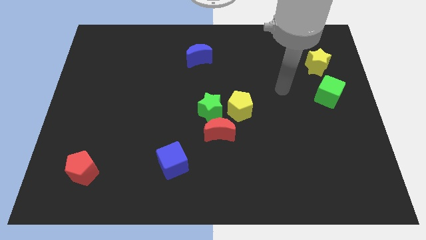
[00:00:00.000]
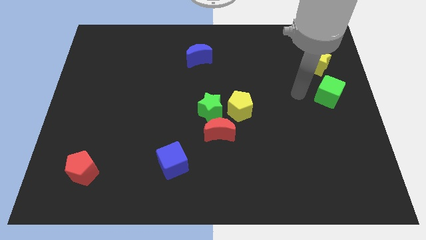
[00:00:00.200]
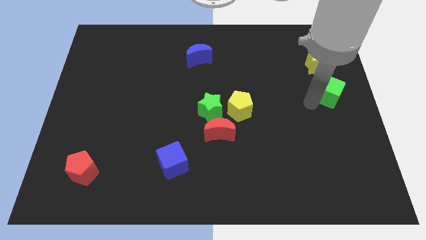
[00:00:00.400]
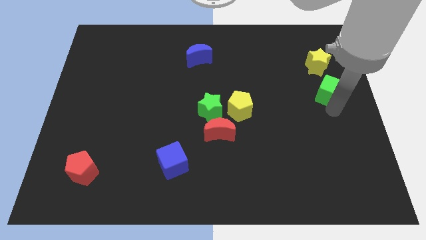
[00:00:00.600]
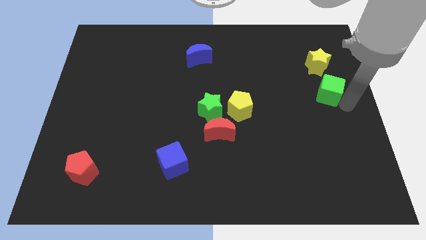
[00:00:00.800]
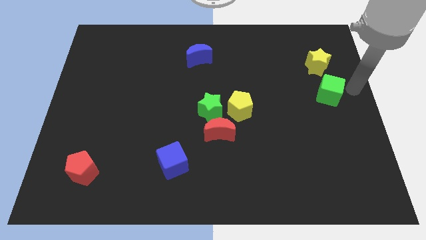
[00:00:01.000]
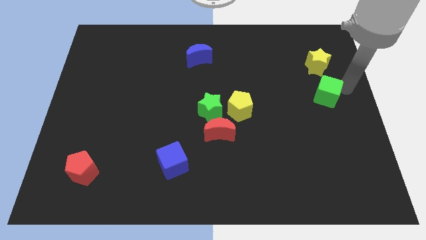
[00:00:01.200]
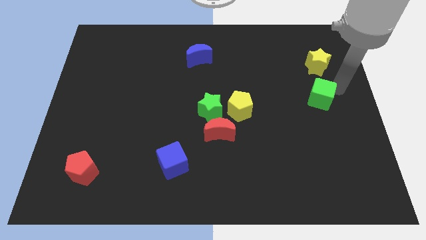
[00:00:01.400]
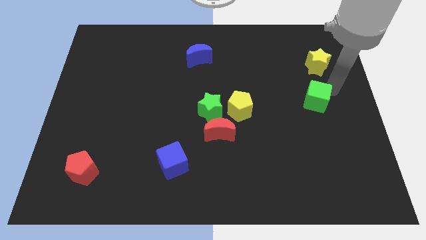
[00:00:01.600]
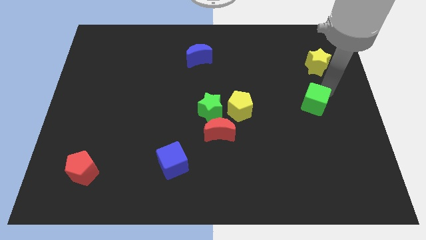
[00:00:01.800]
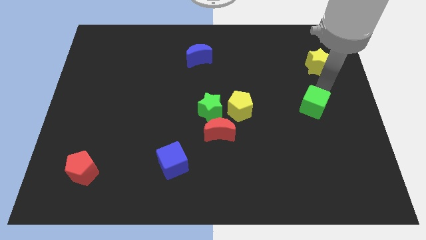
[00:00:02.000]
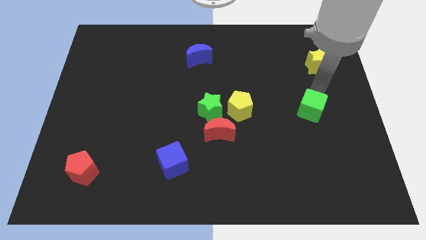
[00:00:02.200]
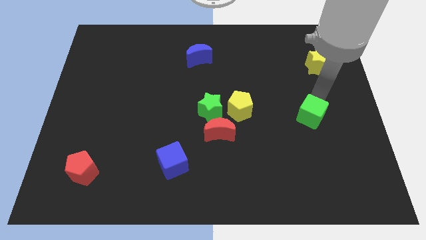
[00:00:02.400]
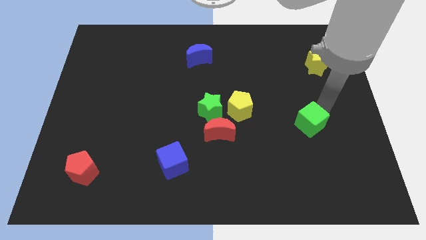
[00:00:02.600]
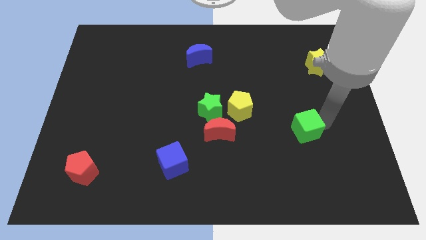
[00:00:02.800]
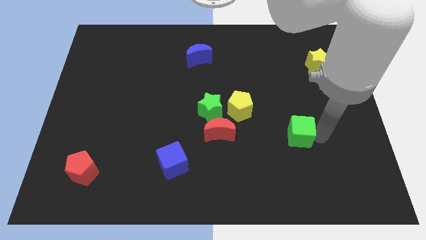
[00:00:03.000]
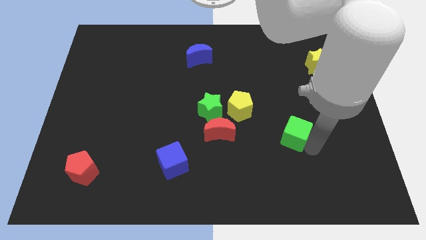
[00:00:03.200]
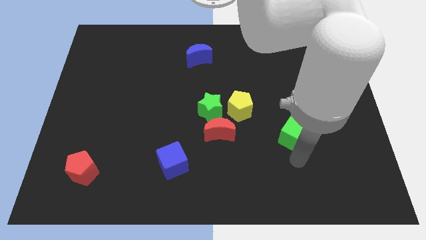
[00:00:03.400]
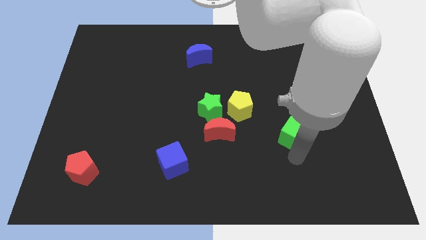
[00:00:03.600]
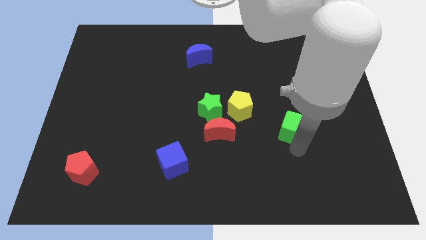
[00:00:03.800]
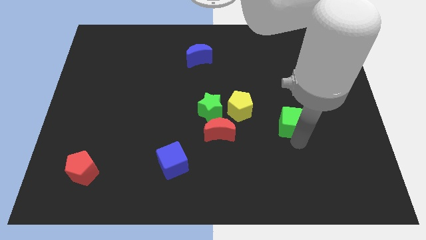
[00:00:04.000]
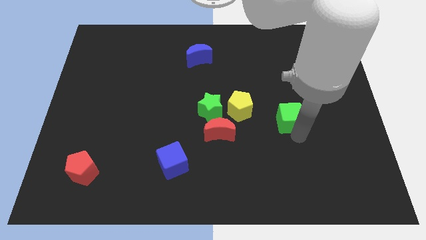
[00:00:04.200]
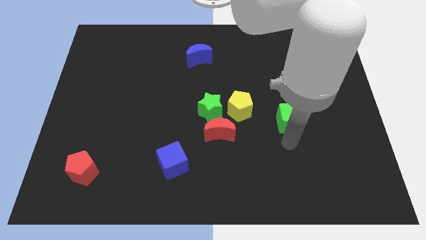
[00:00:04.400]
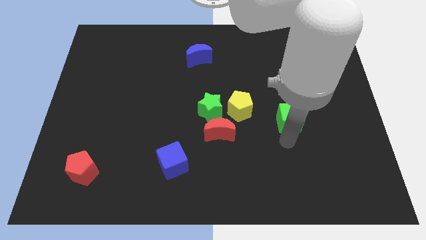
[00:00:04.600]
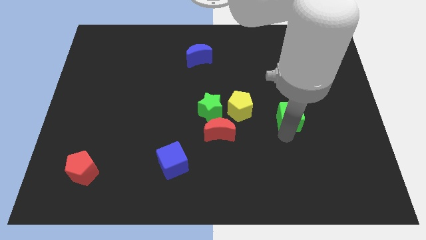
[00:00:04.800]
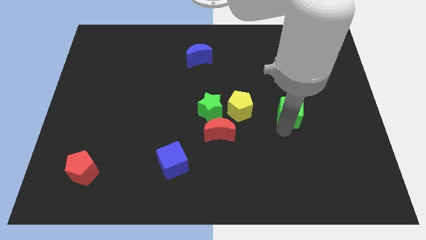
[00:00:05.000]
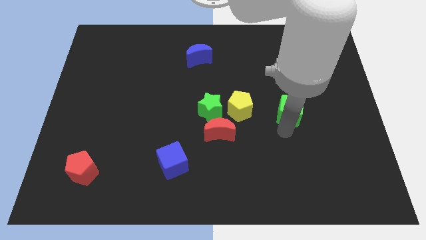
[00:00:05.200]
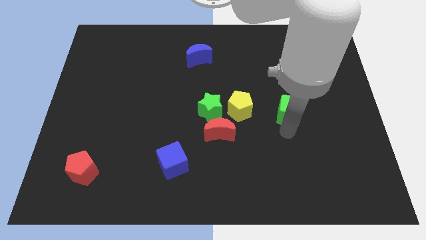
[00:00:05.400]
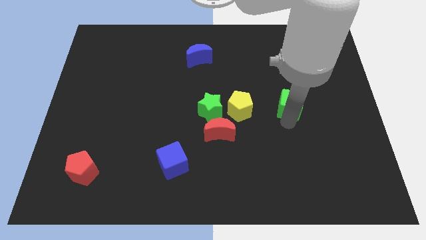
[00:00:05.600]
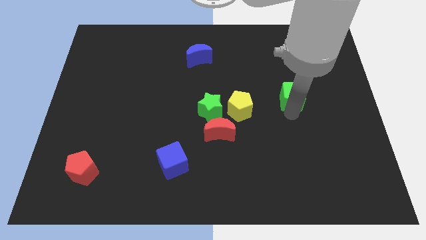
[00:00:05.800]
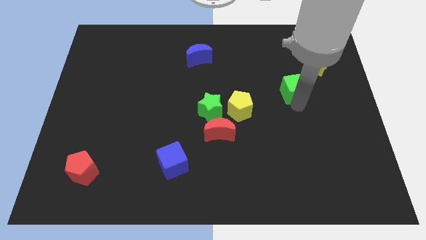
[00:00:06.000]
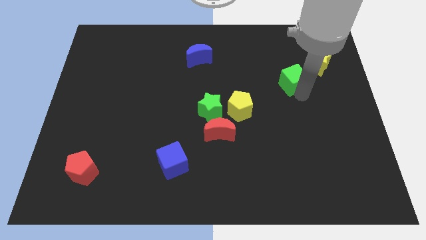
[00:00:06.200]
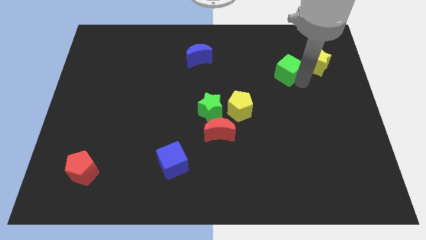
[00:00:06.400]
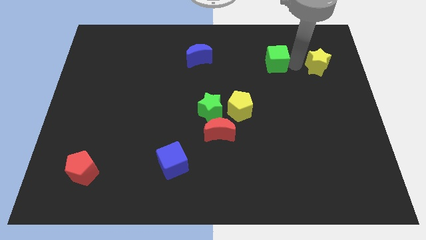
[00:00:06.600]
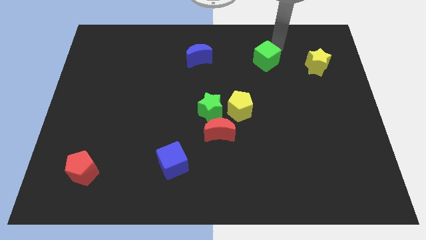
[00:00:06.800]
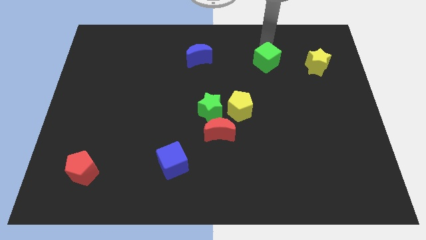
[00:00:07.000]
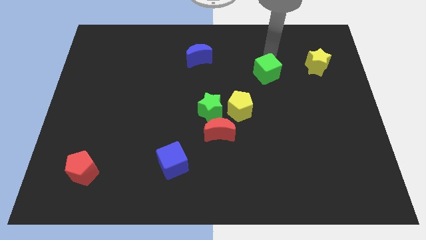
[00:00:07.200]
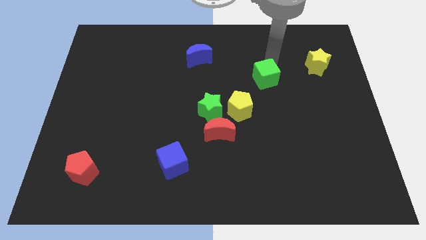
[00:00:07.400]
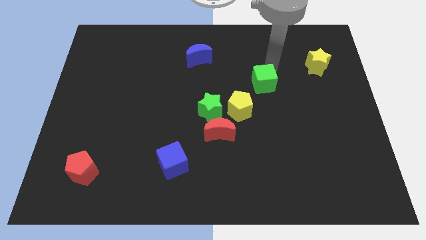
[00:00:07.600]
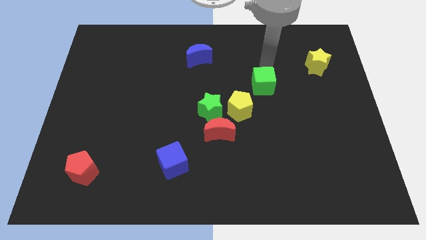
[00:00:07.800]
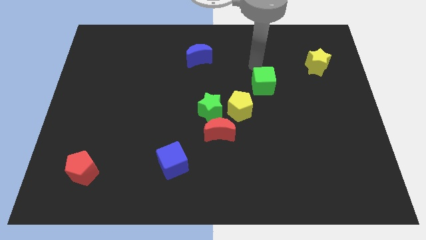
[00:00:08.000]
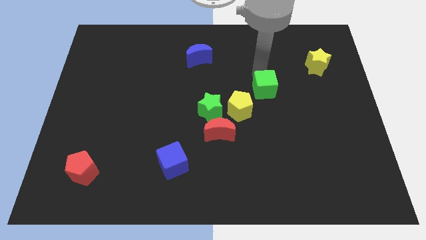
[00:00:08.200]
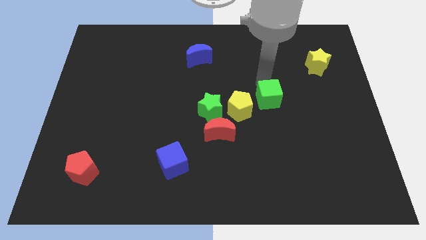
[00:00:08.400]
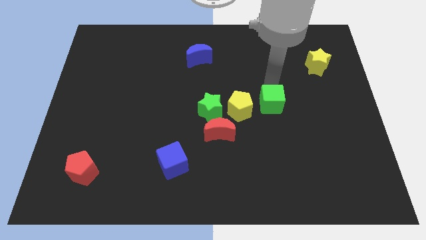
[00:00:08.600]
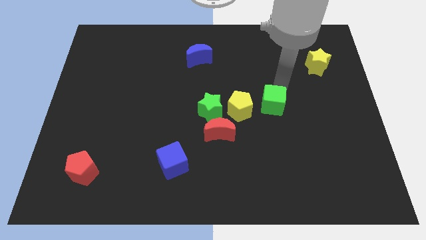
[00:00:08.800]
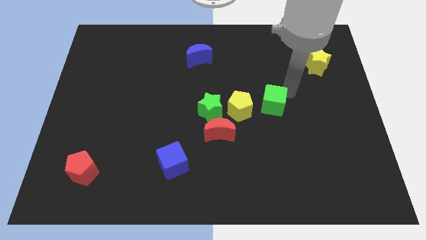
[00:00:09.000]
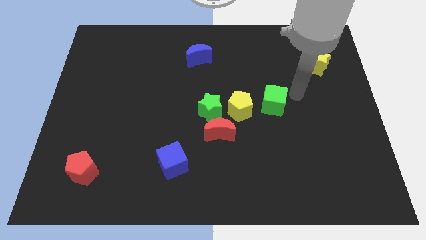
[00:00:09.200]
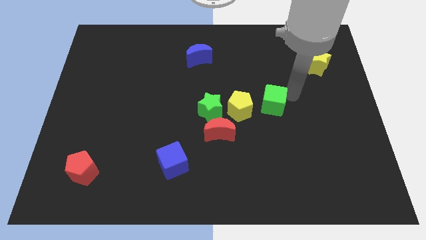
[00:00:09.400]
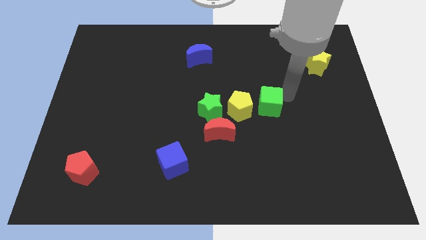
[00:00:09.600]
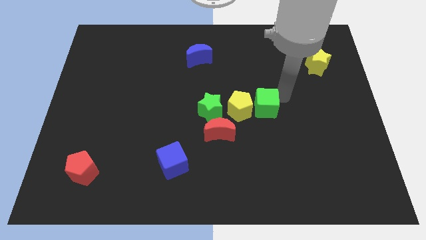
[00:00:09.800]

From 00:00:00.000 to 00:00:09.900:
slide the green cube towards the yellow pentagon

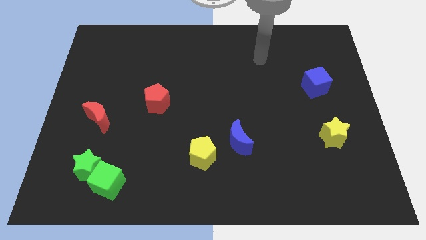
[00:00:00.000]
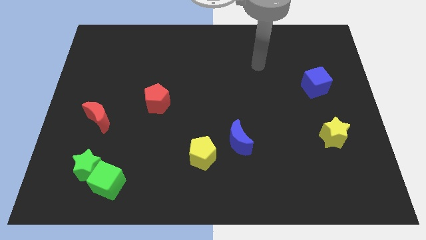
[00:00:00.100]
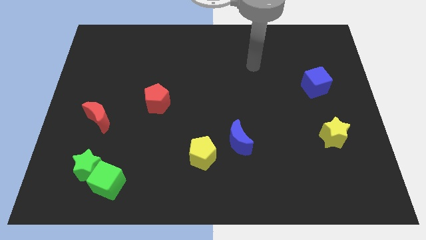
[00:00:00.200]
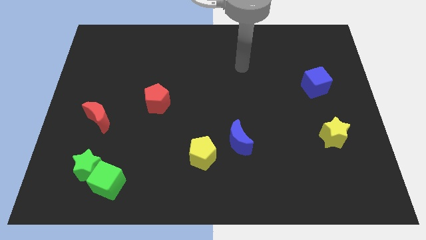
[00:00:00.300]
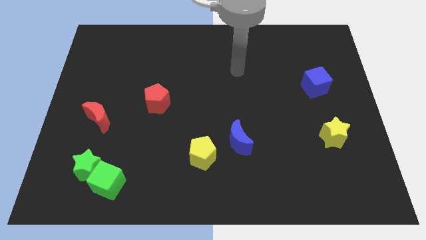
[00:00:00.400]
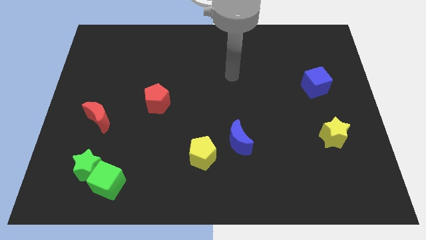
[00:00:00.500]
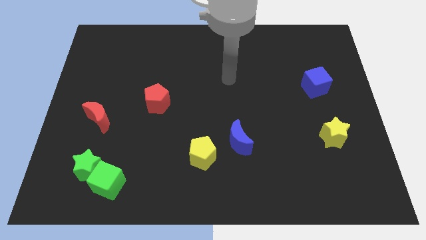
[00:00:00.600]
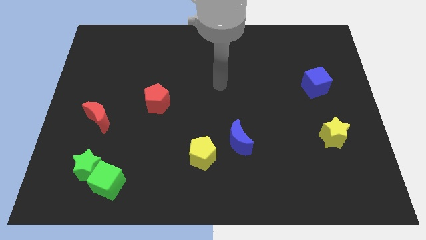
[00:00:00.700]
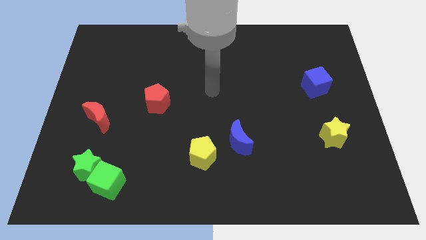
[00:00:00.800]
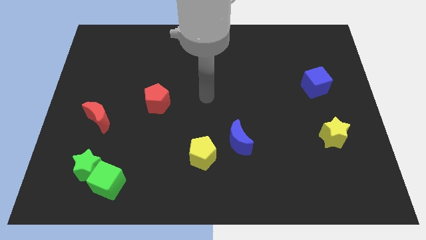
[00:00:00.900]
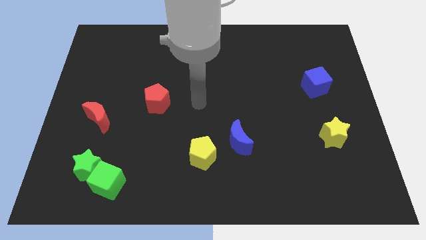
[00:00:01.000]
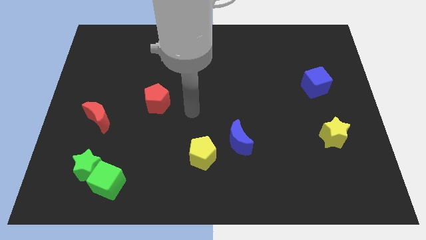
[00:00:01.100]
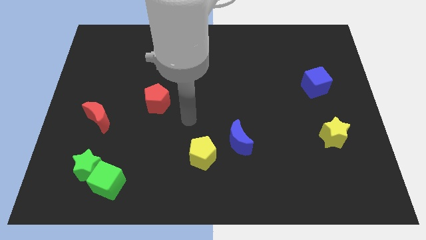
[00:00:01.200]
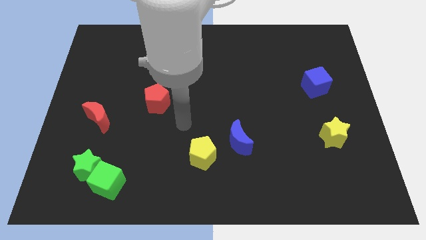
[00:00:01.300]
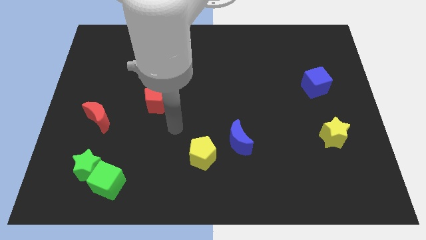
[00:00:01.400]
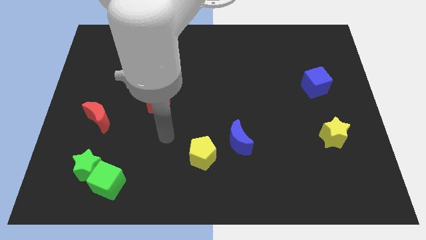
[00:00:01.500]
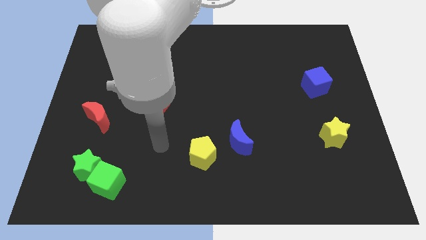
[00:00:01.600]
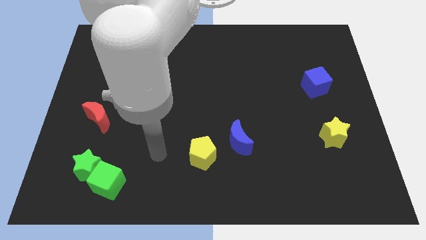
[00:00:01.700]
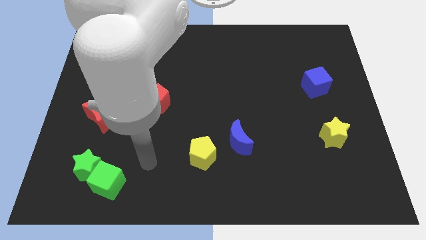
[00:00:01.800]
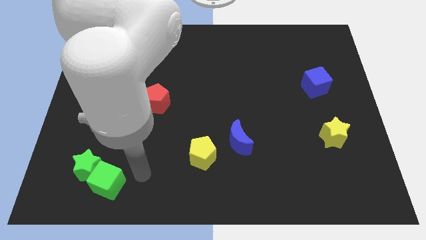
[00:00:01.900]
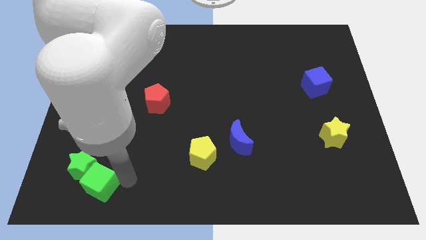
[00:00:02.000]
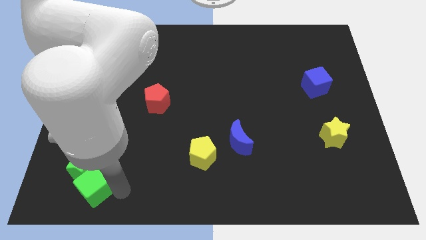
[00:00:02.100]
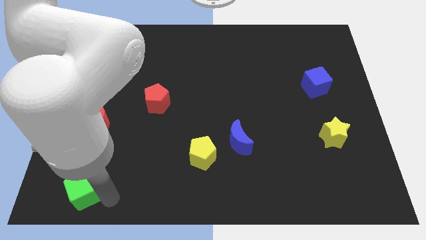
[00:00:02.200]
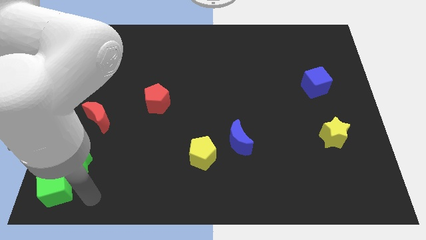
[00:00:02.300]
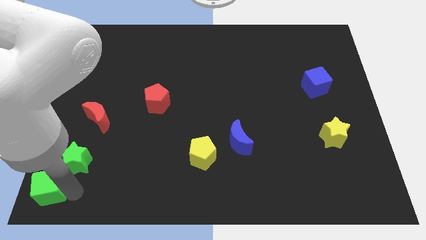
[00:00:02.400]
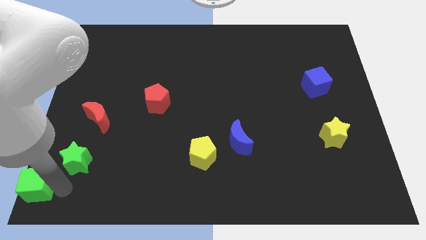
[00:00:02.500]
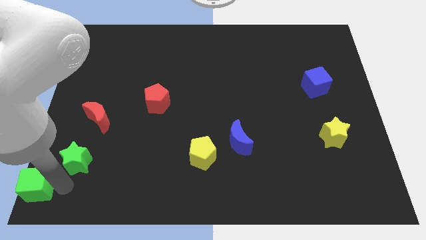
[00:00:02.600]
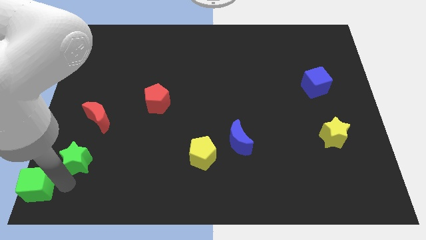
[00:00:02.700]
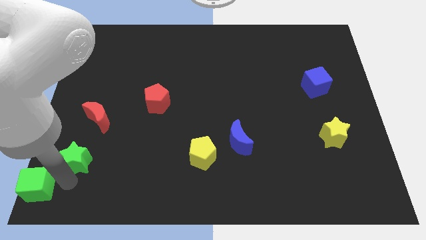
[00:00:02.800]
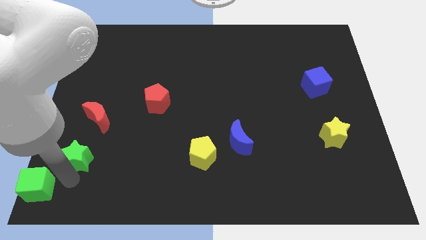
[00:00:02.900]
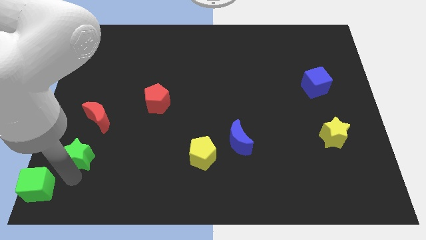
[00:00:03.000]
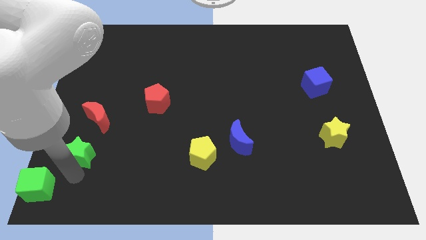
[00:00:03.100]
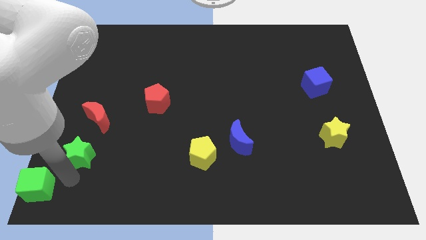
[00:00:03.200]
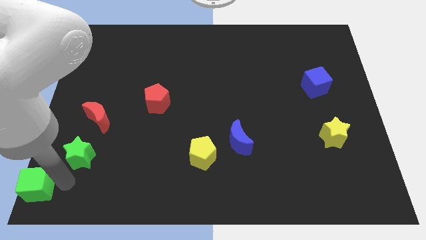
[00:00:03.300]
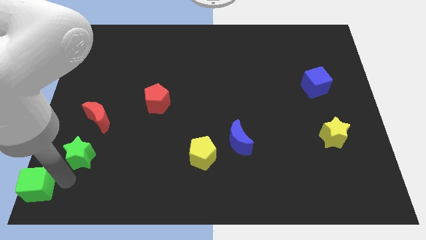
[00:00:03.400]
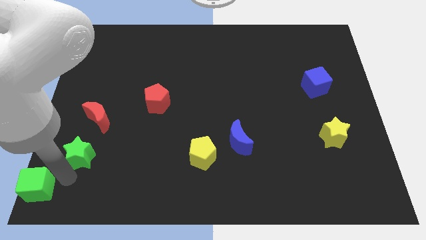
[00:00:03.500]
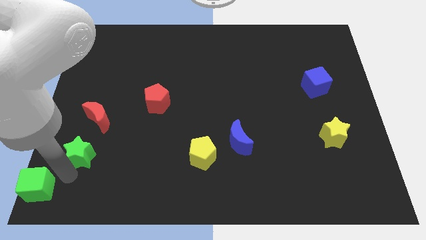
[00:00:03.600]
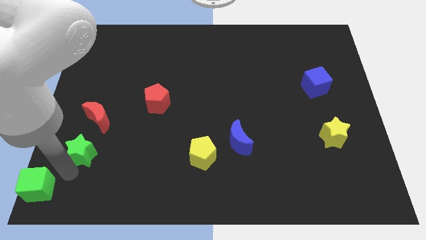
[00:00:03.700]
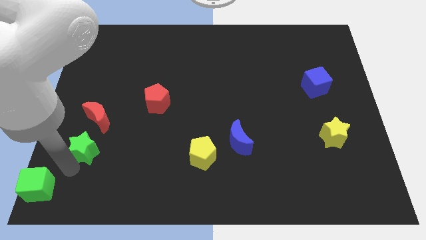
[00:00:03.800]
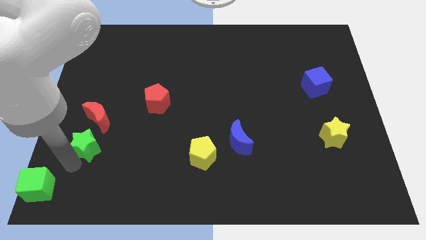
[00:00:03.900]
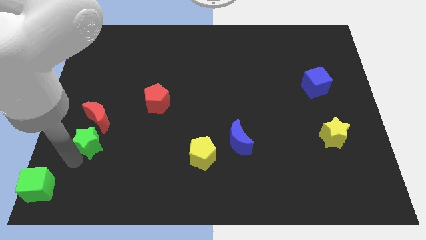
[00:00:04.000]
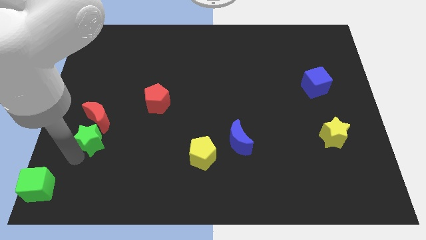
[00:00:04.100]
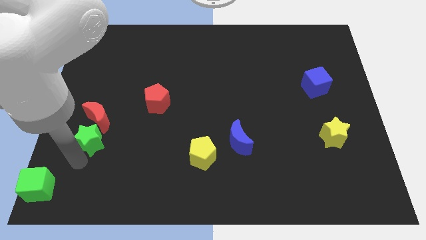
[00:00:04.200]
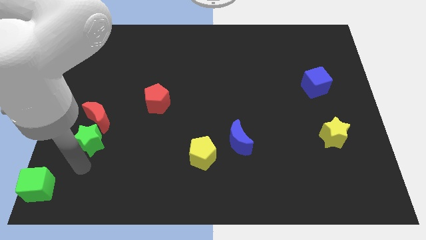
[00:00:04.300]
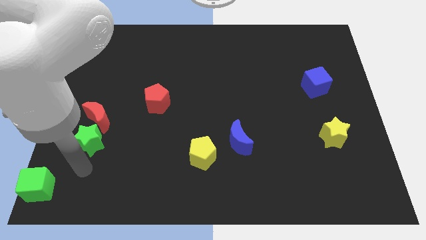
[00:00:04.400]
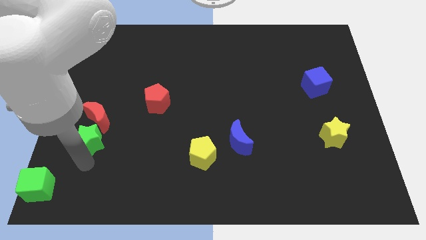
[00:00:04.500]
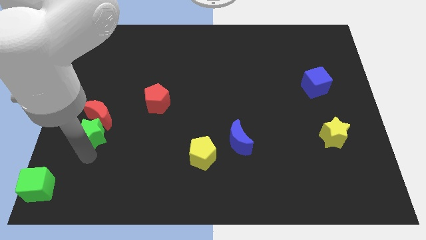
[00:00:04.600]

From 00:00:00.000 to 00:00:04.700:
move the green star towards the red moon
